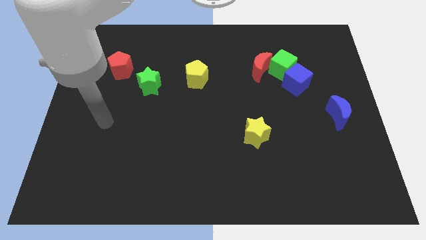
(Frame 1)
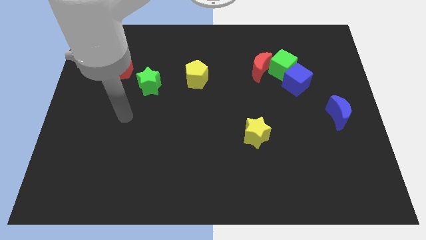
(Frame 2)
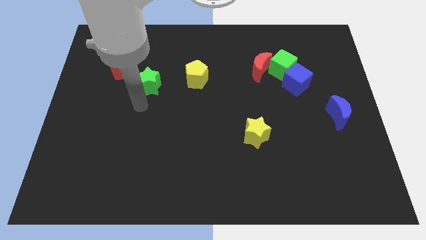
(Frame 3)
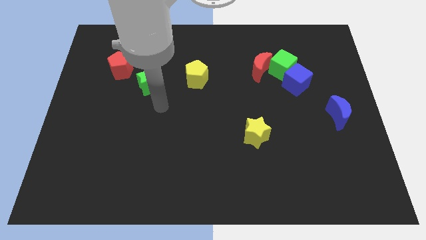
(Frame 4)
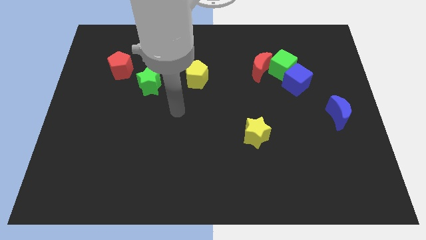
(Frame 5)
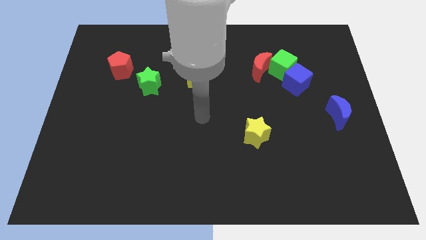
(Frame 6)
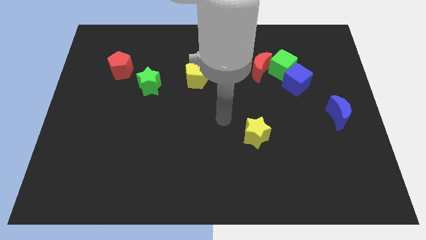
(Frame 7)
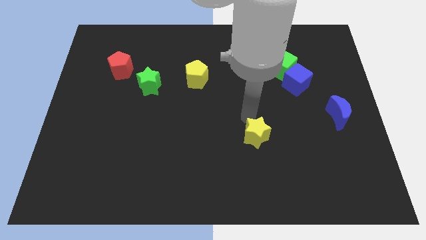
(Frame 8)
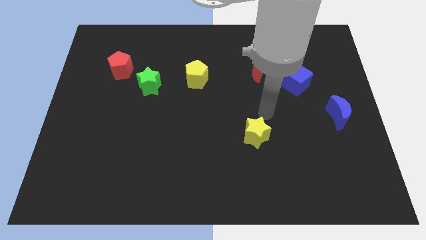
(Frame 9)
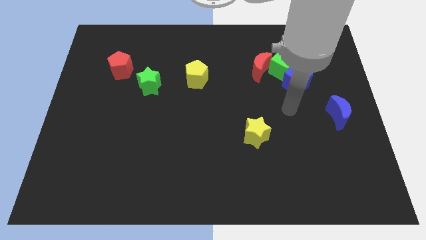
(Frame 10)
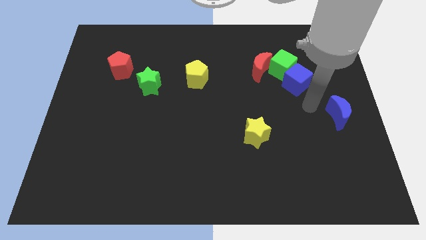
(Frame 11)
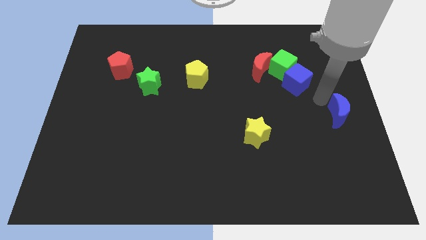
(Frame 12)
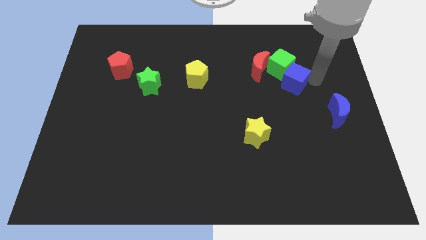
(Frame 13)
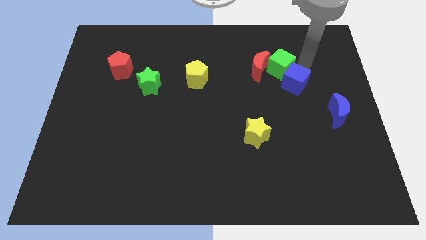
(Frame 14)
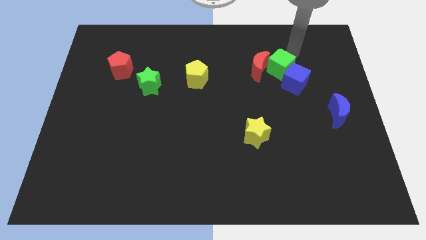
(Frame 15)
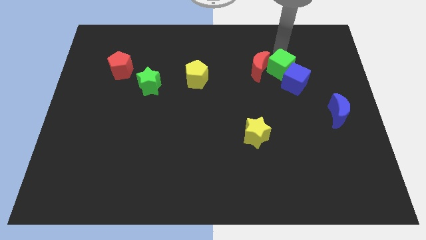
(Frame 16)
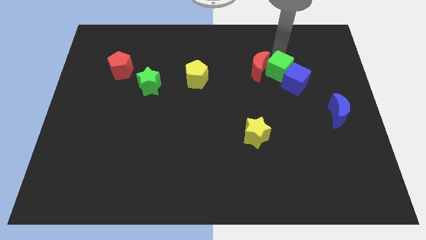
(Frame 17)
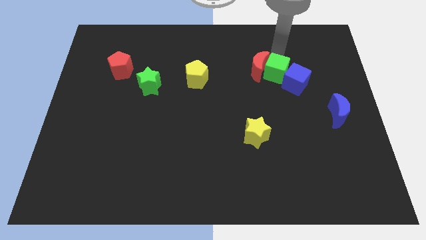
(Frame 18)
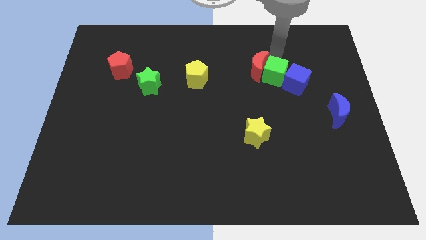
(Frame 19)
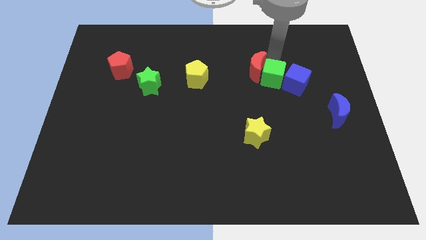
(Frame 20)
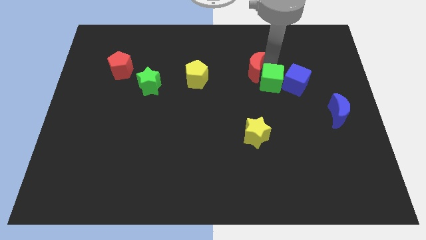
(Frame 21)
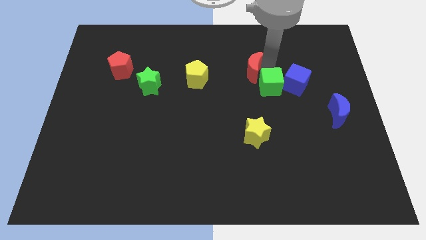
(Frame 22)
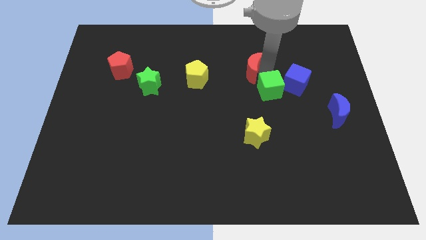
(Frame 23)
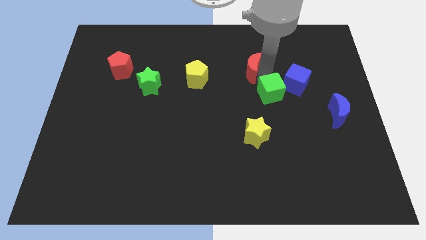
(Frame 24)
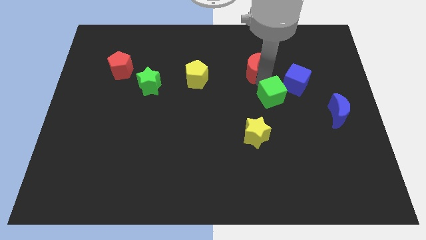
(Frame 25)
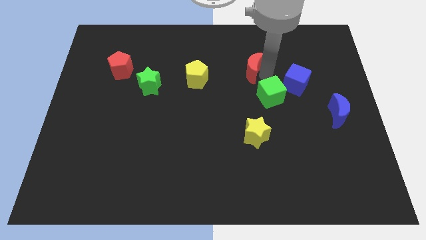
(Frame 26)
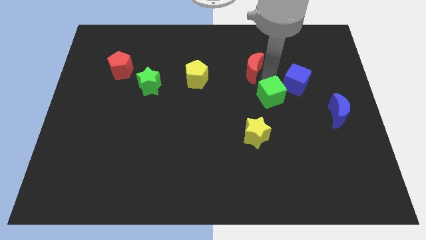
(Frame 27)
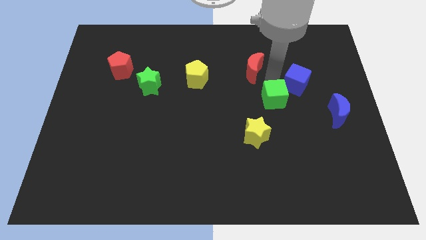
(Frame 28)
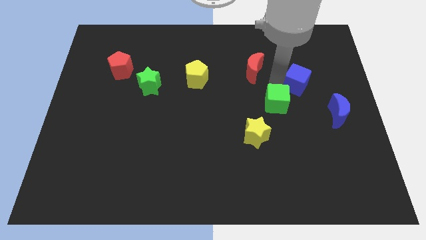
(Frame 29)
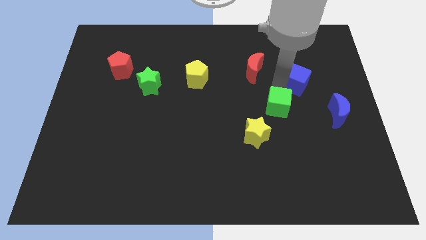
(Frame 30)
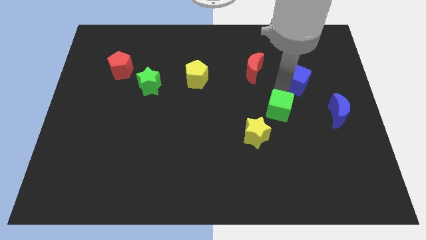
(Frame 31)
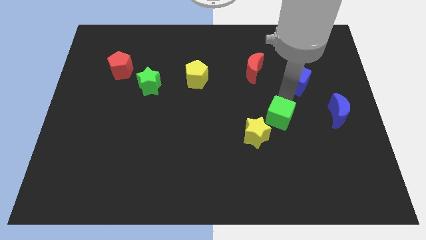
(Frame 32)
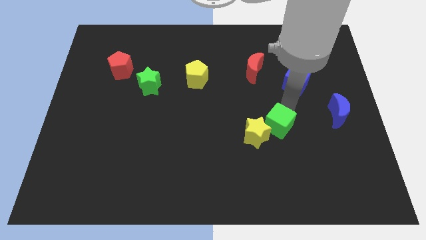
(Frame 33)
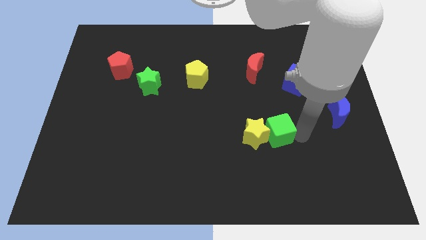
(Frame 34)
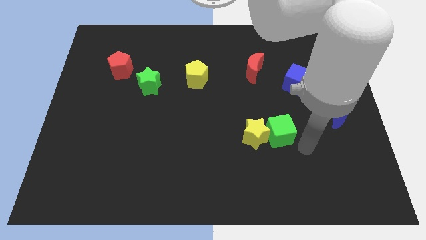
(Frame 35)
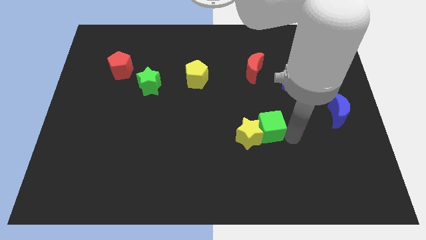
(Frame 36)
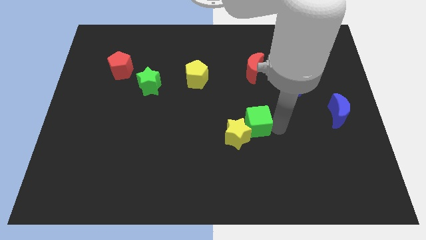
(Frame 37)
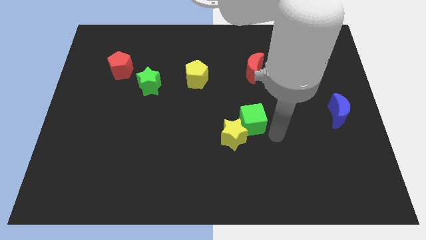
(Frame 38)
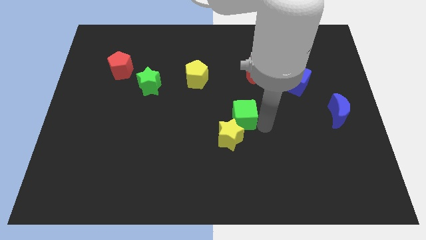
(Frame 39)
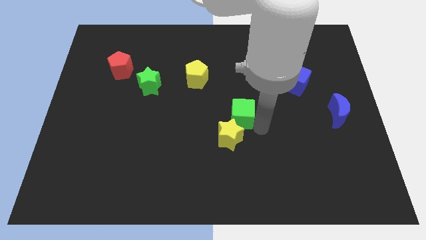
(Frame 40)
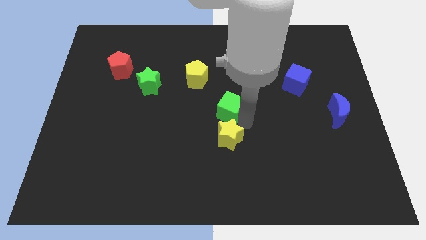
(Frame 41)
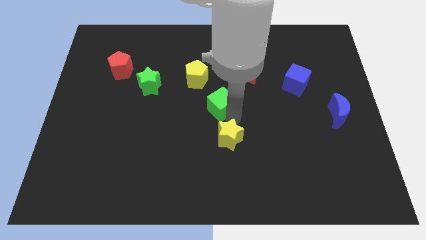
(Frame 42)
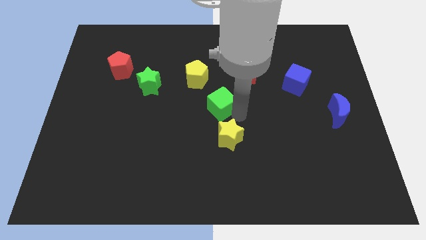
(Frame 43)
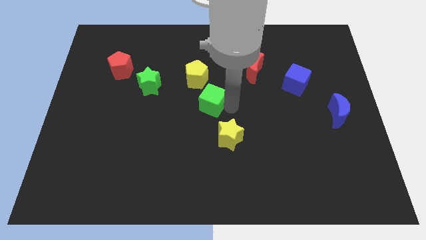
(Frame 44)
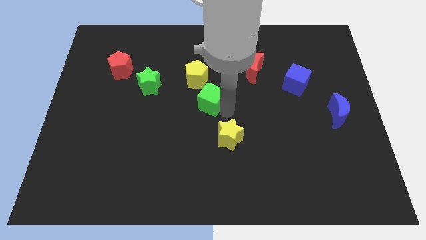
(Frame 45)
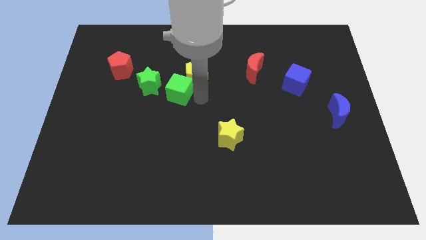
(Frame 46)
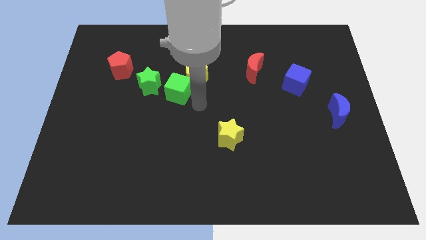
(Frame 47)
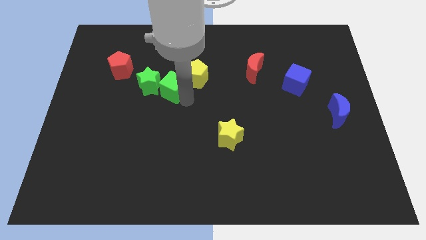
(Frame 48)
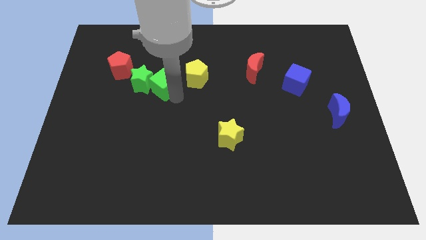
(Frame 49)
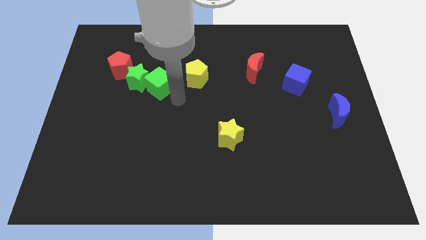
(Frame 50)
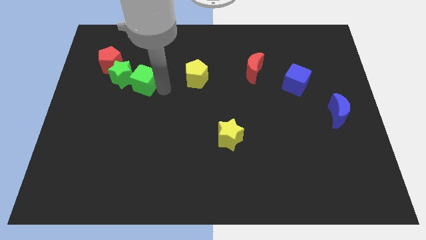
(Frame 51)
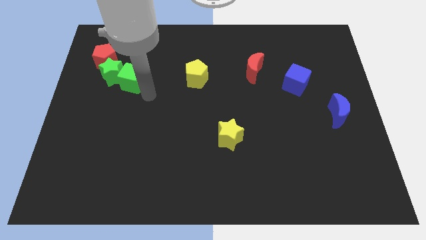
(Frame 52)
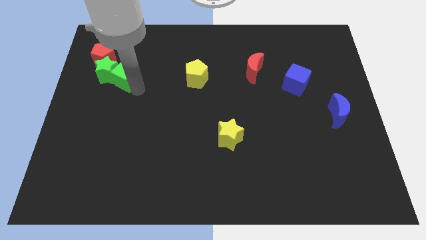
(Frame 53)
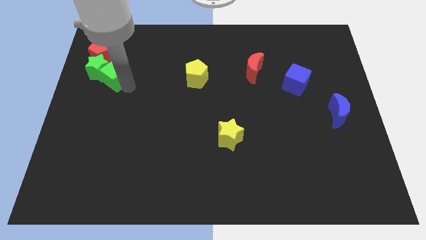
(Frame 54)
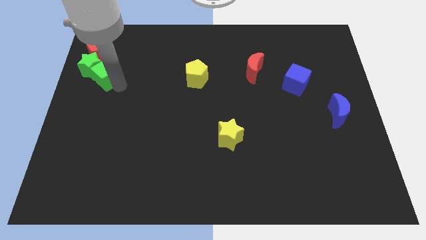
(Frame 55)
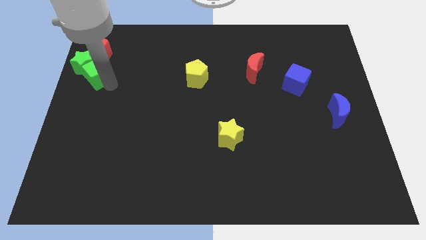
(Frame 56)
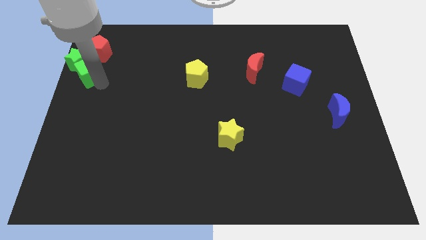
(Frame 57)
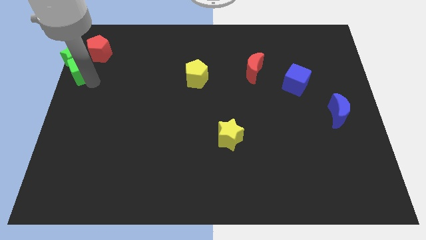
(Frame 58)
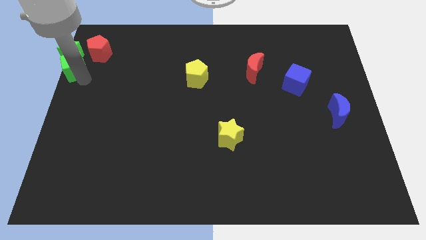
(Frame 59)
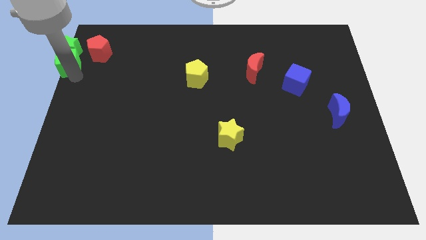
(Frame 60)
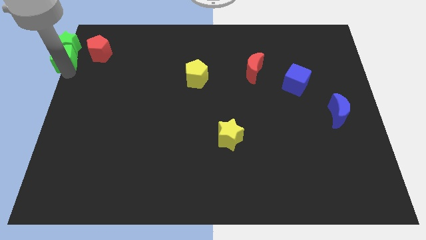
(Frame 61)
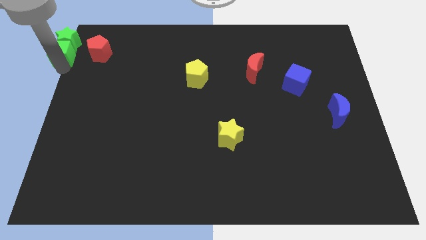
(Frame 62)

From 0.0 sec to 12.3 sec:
put the green cube to the top left
